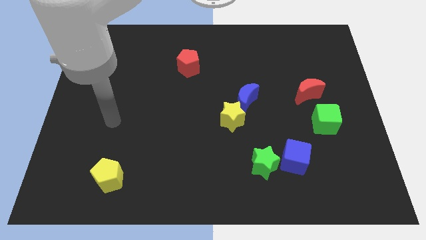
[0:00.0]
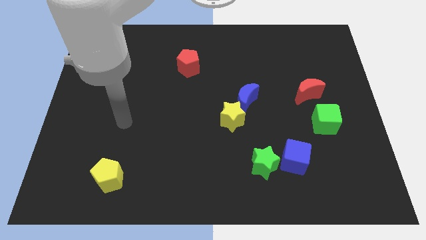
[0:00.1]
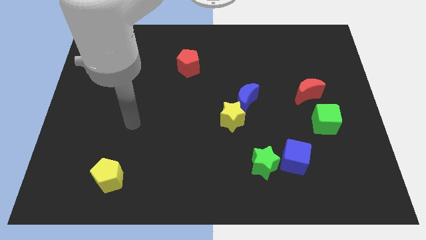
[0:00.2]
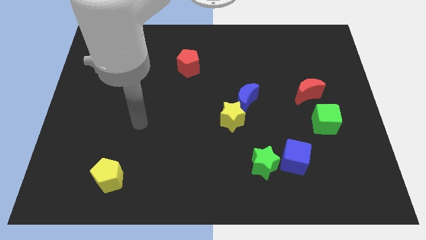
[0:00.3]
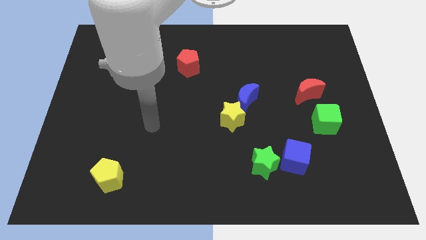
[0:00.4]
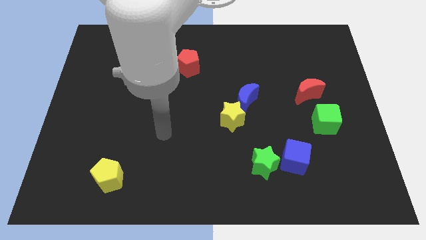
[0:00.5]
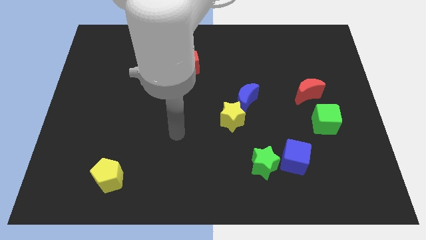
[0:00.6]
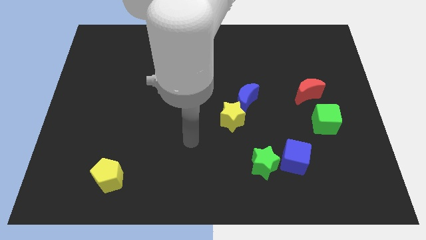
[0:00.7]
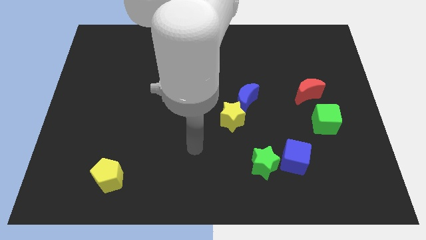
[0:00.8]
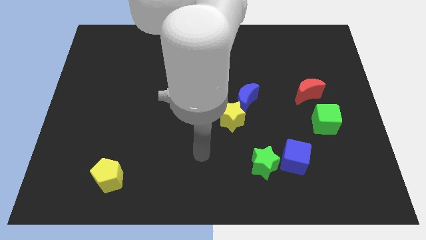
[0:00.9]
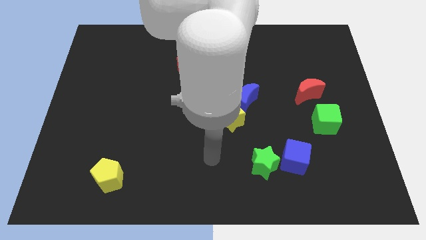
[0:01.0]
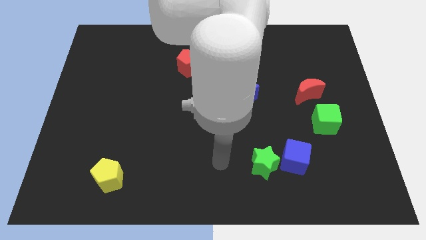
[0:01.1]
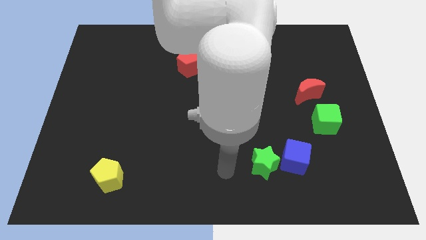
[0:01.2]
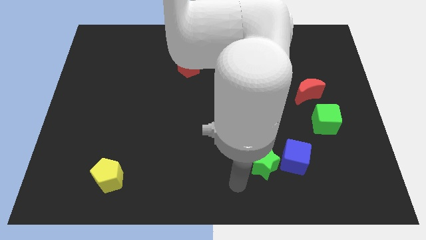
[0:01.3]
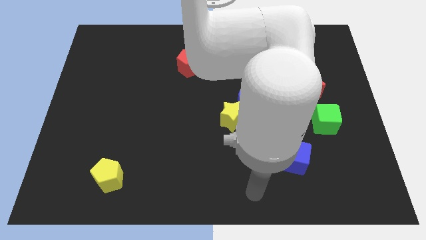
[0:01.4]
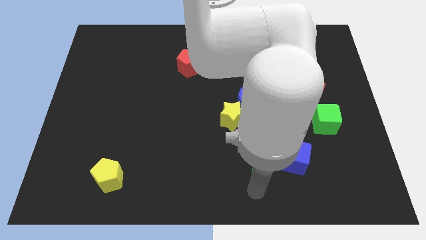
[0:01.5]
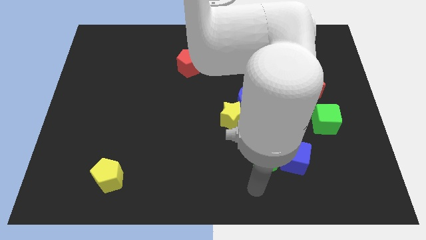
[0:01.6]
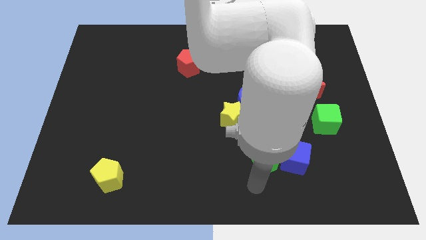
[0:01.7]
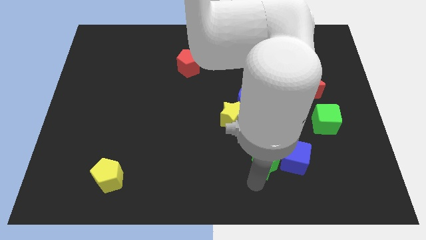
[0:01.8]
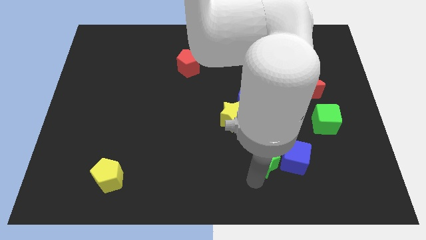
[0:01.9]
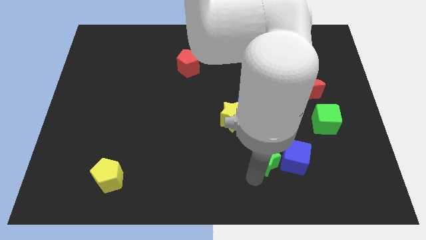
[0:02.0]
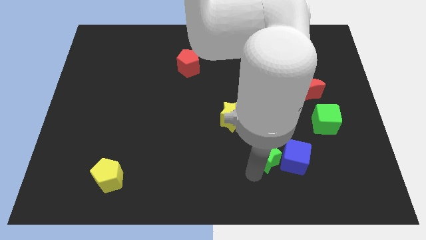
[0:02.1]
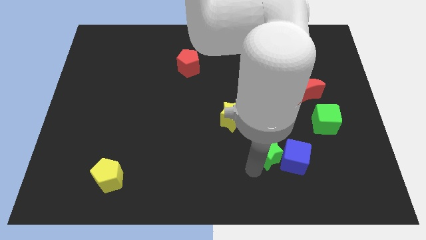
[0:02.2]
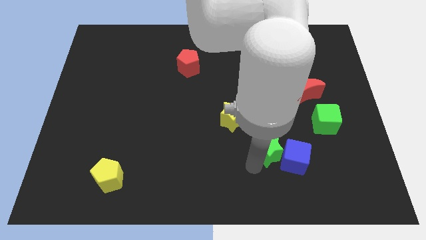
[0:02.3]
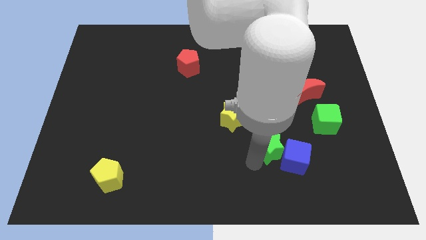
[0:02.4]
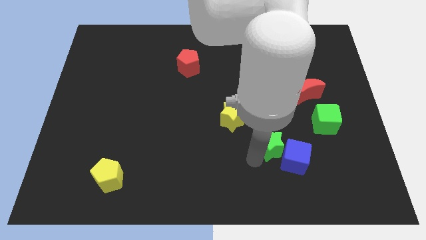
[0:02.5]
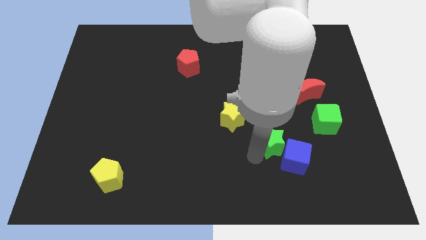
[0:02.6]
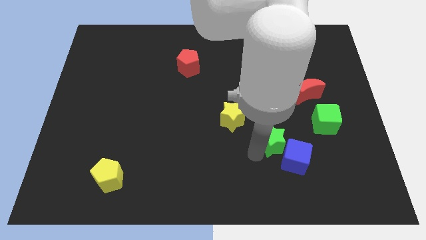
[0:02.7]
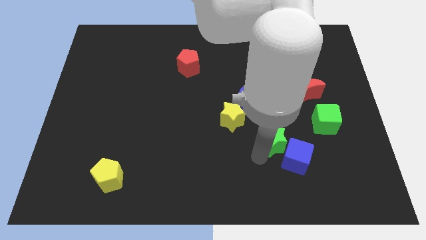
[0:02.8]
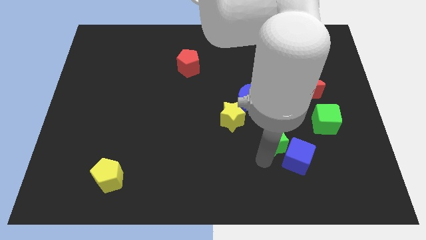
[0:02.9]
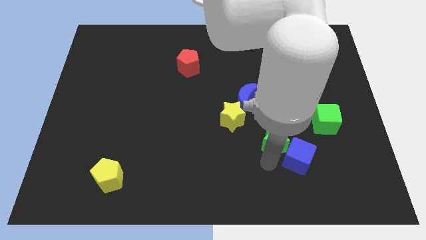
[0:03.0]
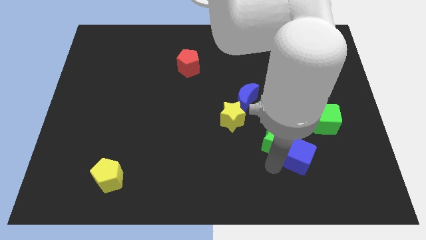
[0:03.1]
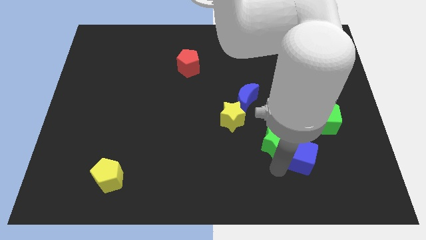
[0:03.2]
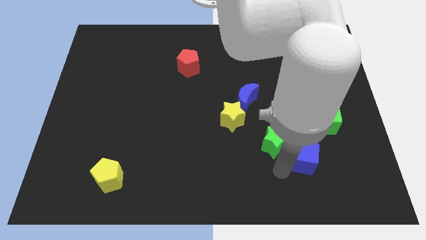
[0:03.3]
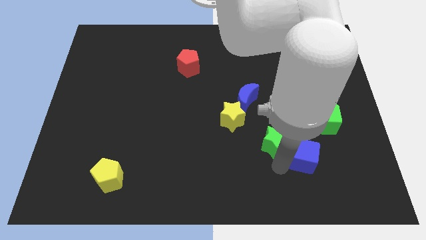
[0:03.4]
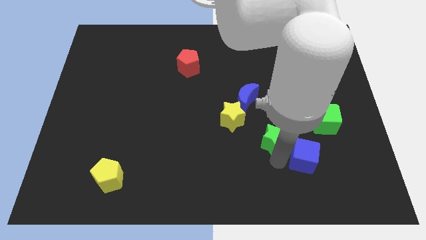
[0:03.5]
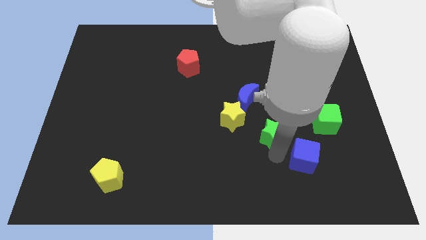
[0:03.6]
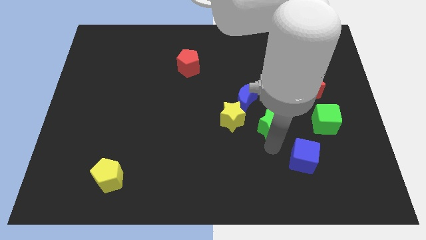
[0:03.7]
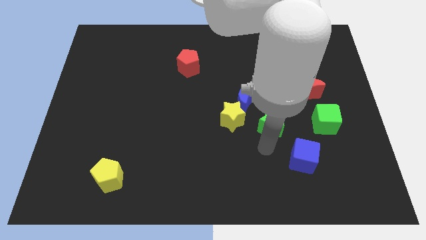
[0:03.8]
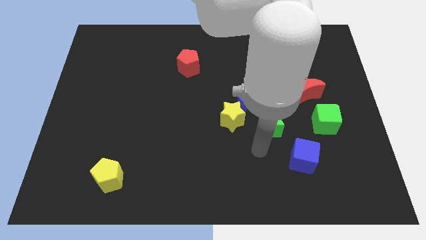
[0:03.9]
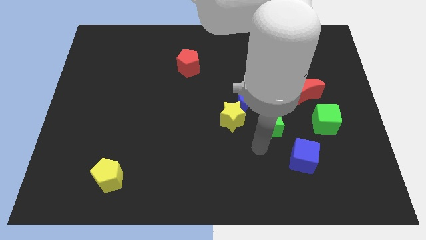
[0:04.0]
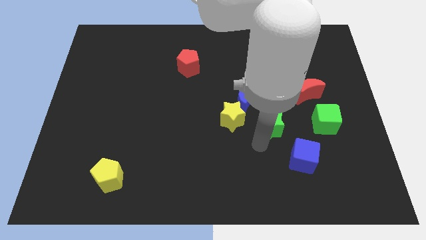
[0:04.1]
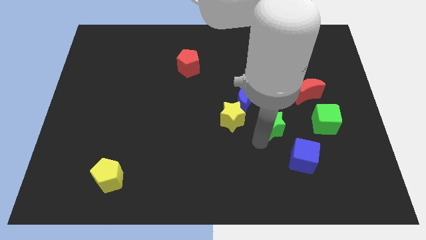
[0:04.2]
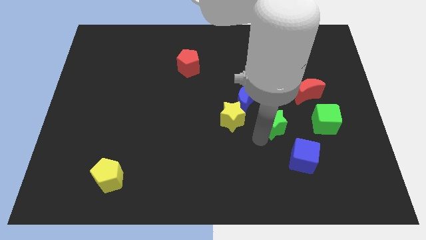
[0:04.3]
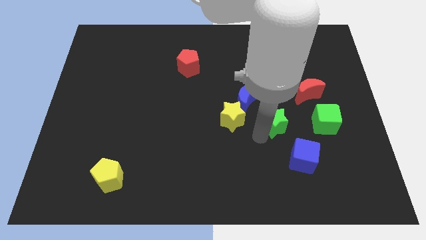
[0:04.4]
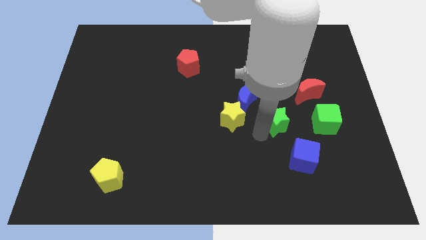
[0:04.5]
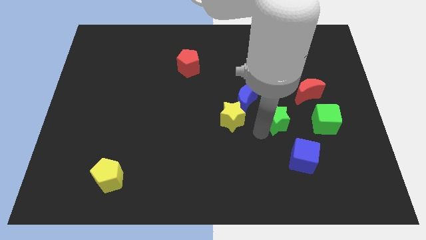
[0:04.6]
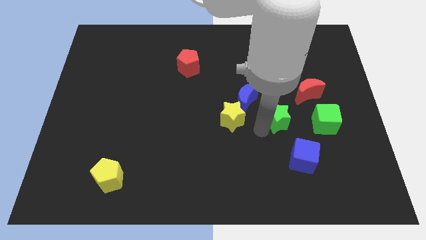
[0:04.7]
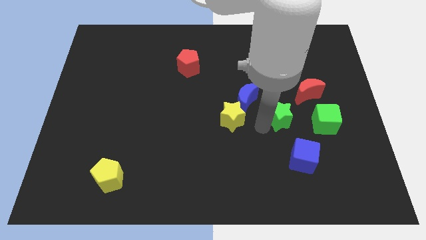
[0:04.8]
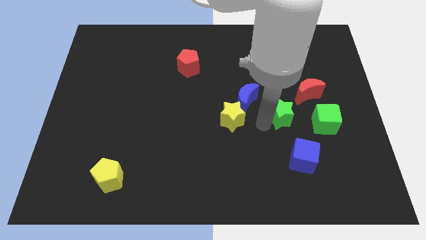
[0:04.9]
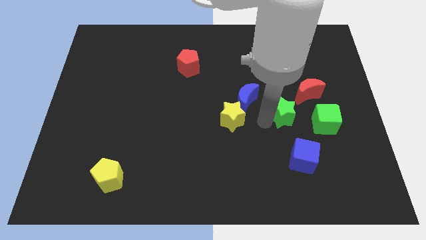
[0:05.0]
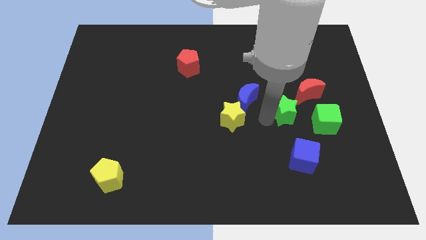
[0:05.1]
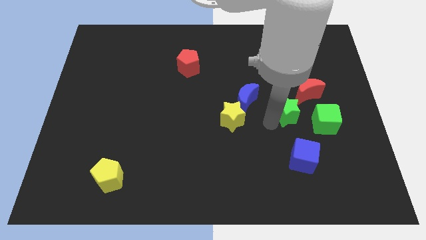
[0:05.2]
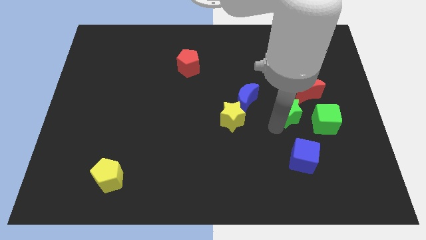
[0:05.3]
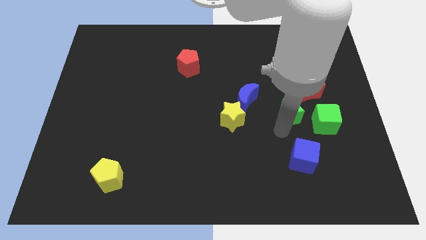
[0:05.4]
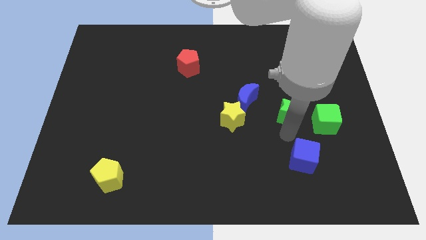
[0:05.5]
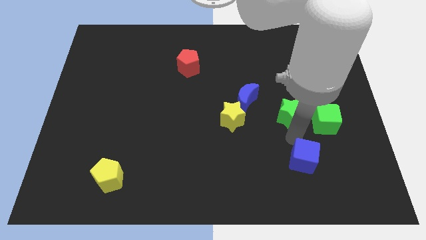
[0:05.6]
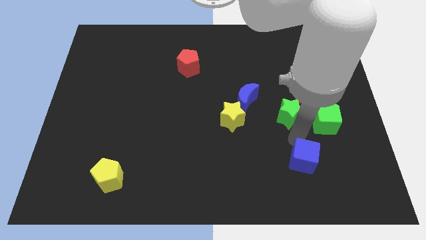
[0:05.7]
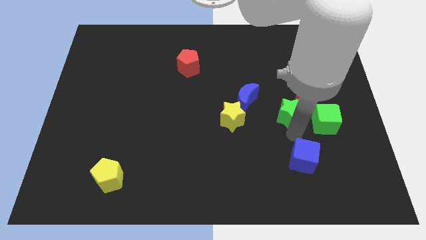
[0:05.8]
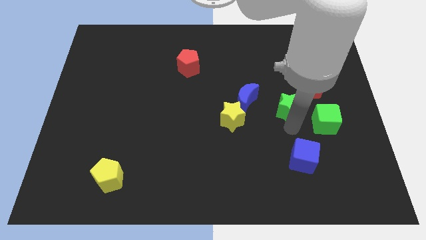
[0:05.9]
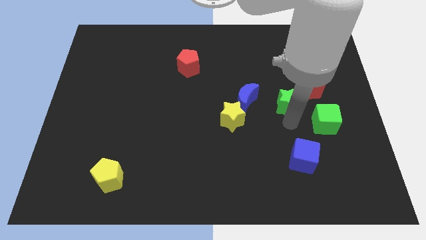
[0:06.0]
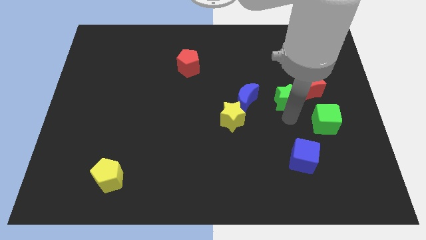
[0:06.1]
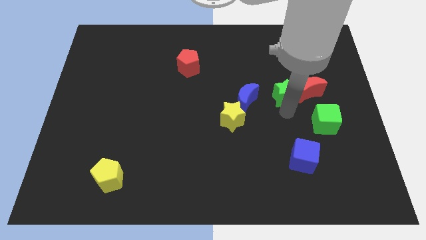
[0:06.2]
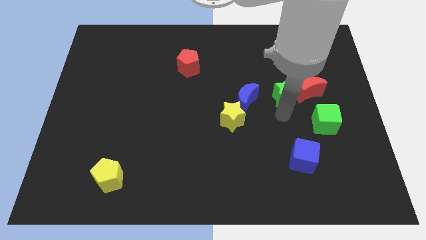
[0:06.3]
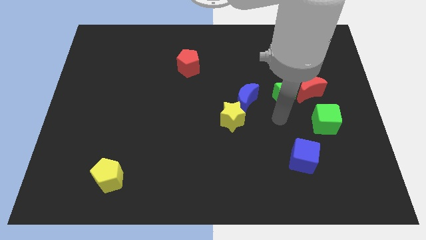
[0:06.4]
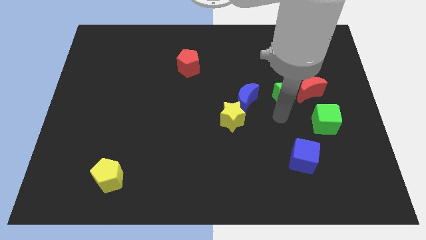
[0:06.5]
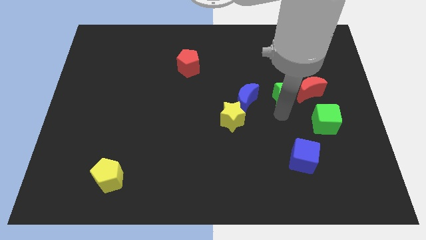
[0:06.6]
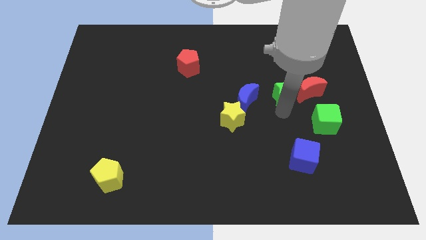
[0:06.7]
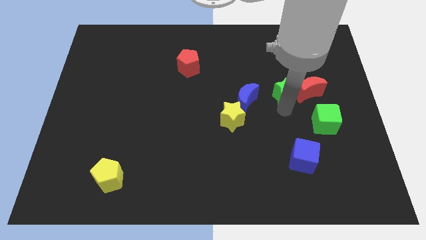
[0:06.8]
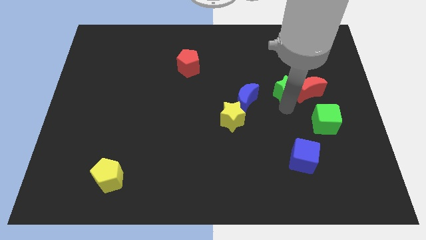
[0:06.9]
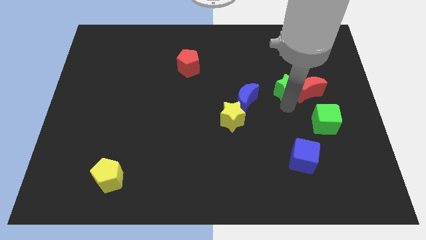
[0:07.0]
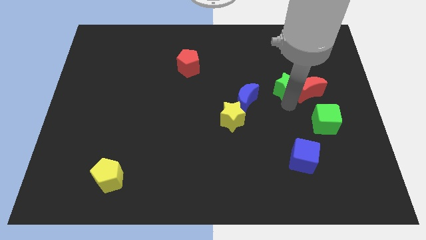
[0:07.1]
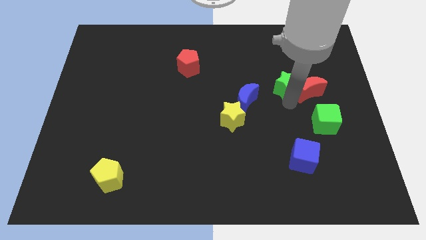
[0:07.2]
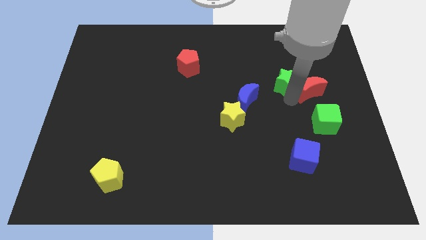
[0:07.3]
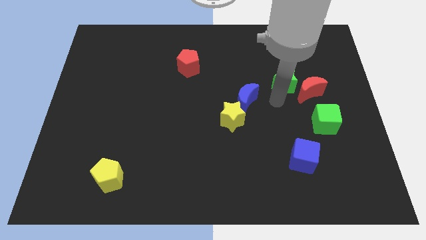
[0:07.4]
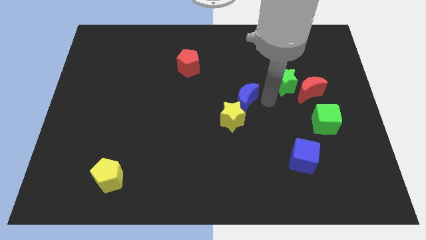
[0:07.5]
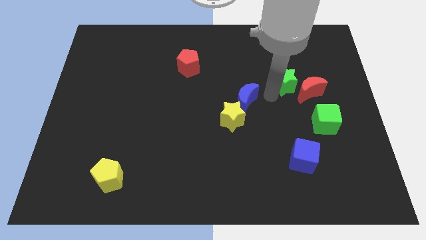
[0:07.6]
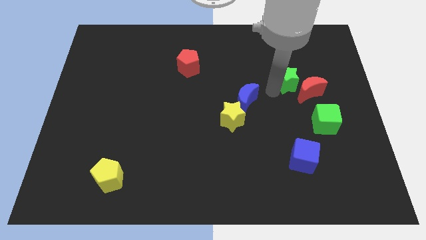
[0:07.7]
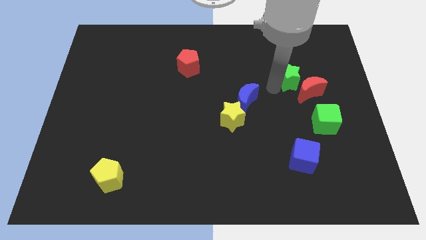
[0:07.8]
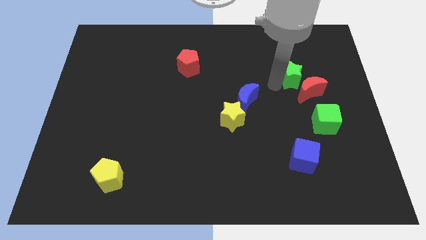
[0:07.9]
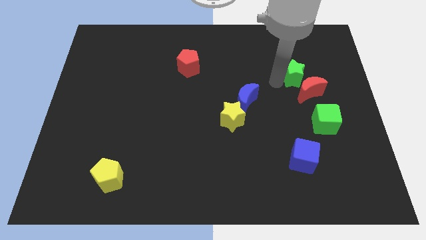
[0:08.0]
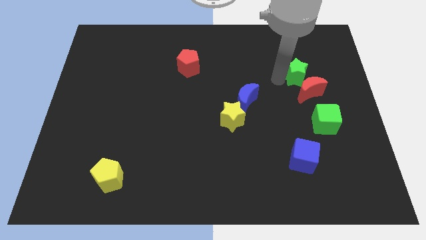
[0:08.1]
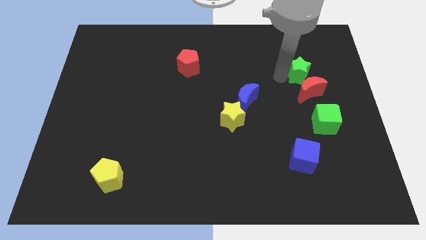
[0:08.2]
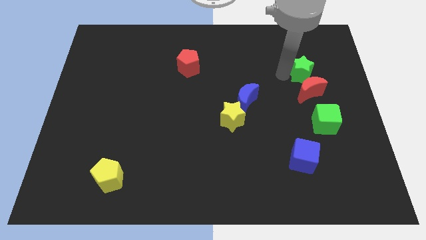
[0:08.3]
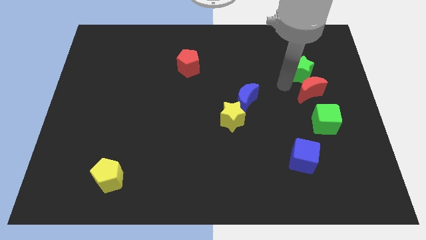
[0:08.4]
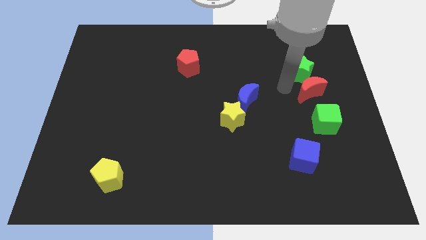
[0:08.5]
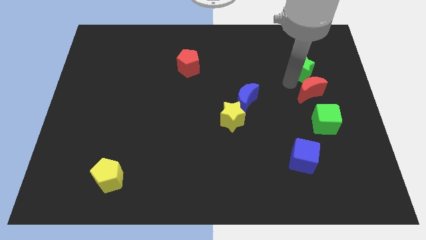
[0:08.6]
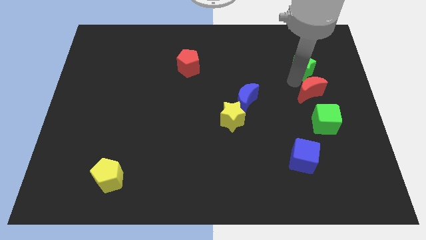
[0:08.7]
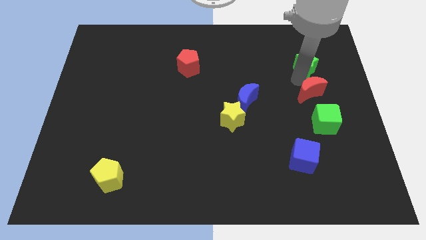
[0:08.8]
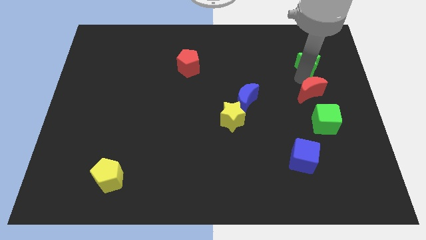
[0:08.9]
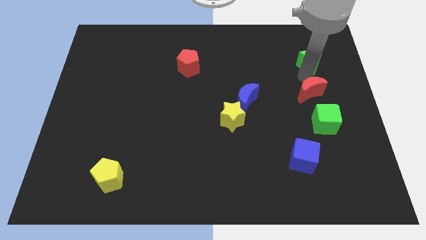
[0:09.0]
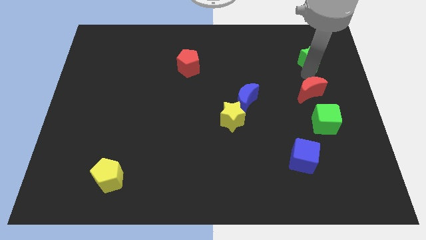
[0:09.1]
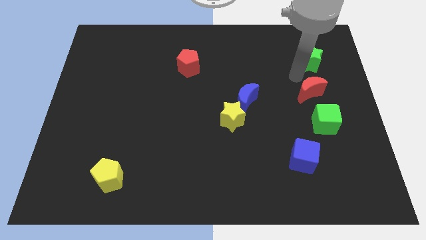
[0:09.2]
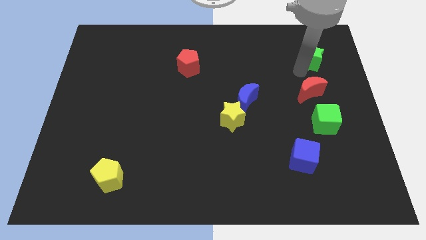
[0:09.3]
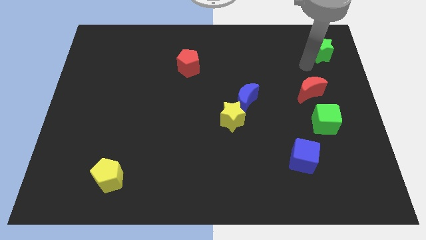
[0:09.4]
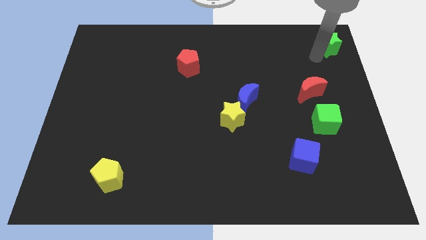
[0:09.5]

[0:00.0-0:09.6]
move the green star to the upper right corner
